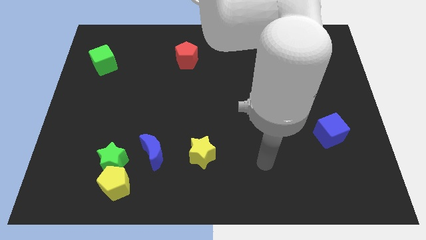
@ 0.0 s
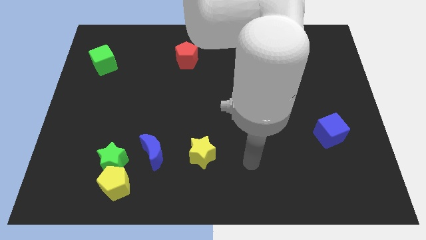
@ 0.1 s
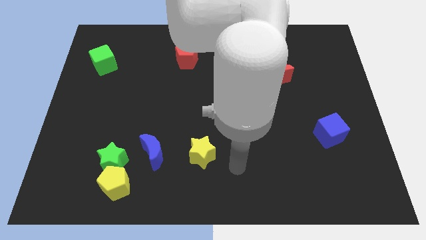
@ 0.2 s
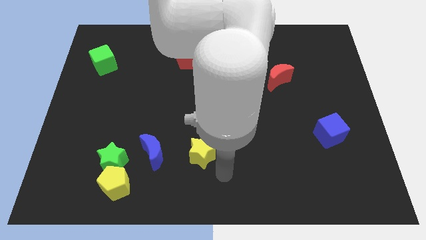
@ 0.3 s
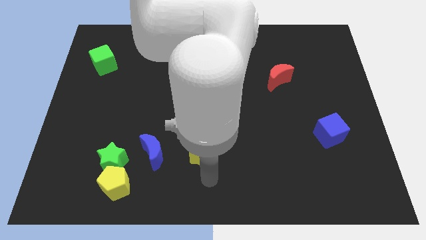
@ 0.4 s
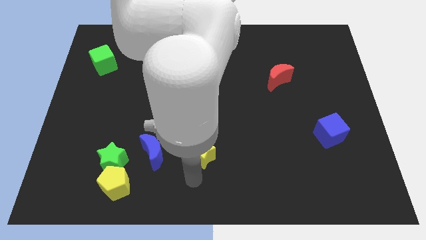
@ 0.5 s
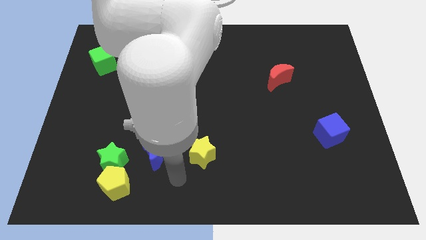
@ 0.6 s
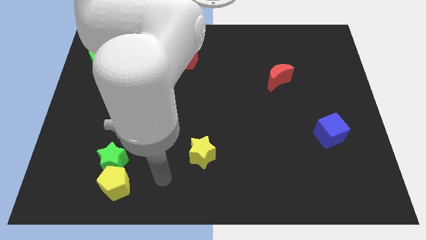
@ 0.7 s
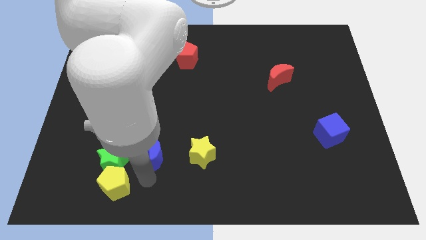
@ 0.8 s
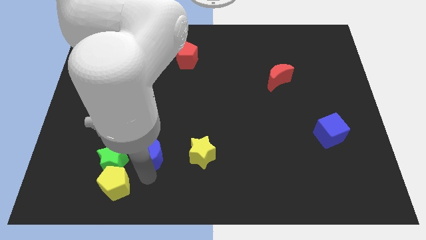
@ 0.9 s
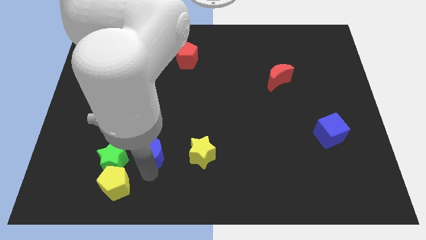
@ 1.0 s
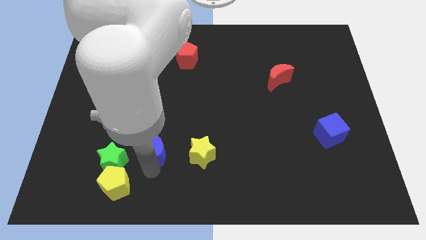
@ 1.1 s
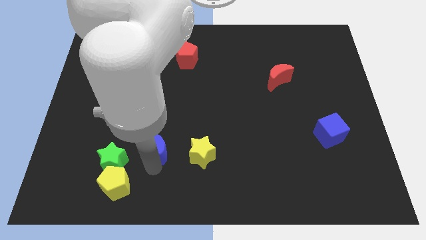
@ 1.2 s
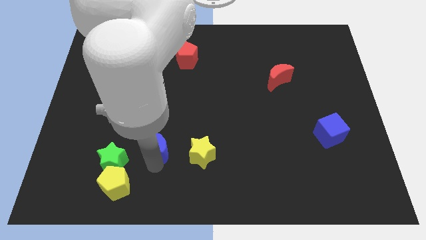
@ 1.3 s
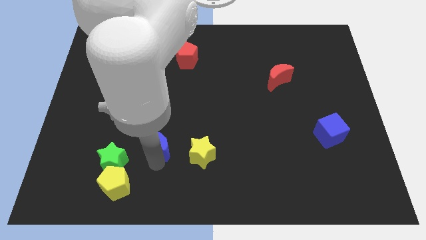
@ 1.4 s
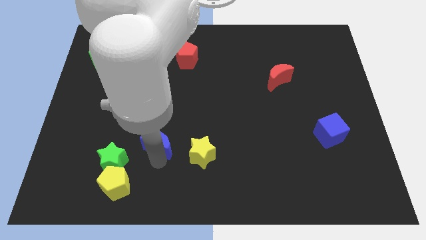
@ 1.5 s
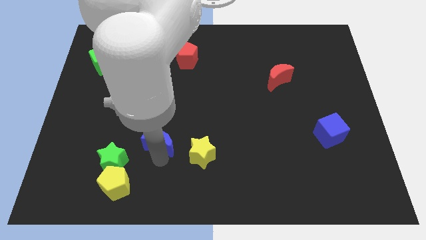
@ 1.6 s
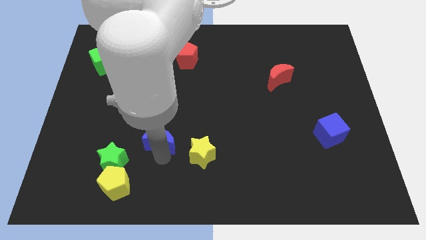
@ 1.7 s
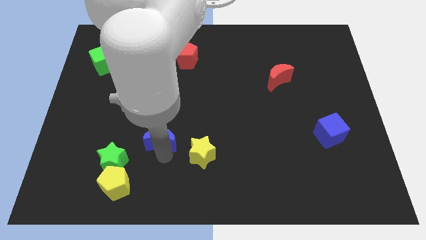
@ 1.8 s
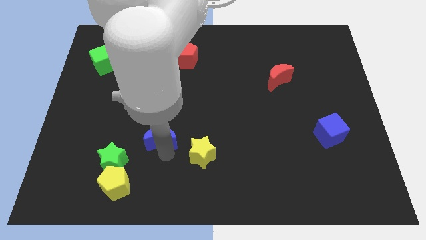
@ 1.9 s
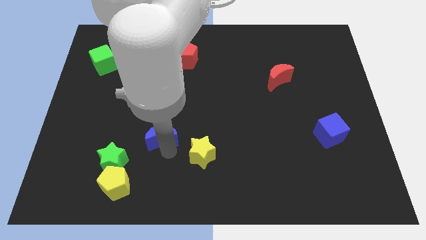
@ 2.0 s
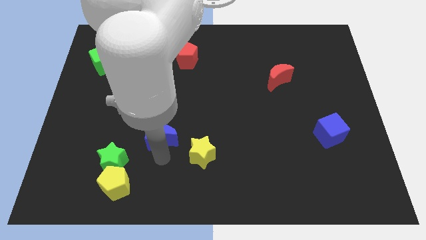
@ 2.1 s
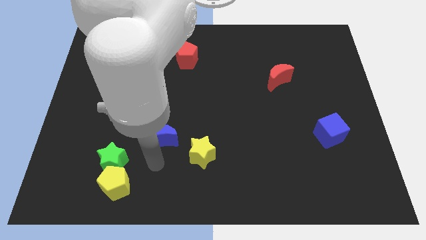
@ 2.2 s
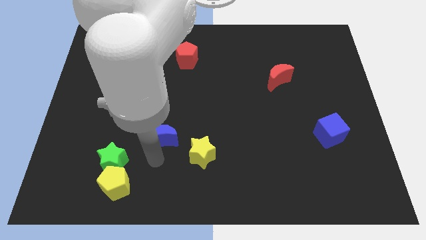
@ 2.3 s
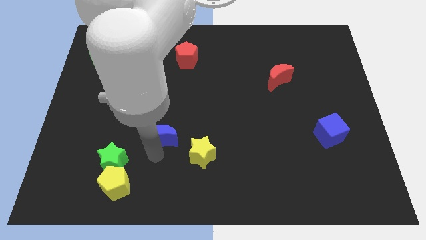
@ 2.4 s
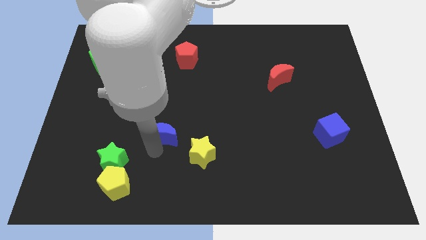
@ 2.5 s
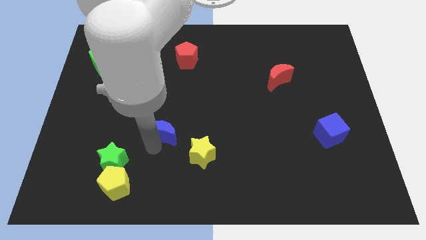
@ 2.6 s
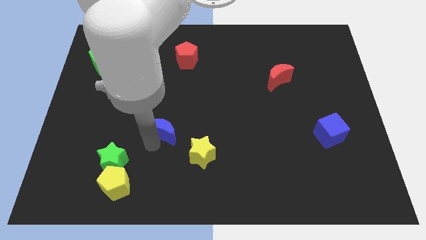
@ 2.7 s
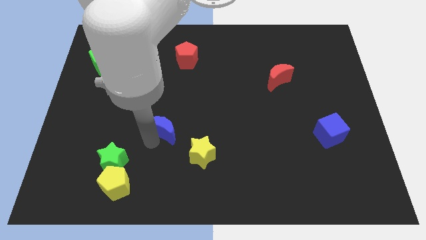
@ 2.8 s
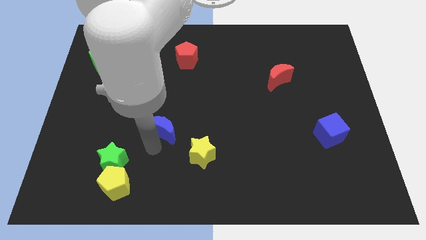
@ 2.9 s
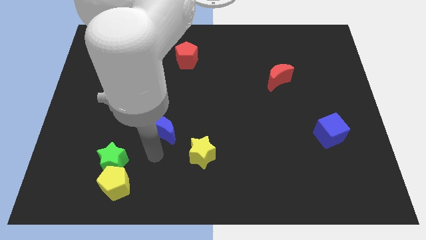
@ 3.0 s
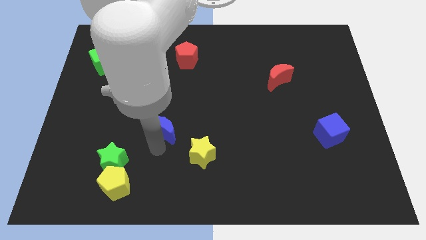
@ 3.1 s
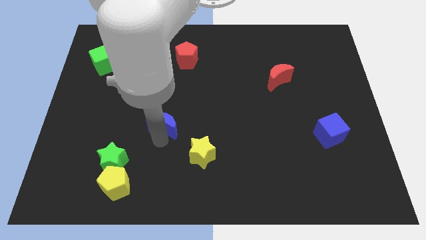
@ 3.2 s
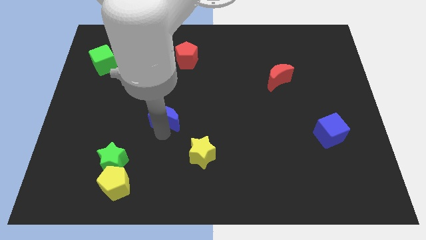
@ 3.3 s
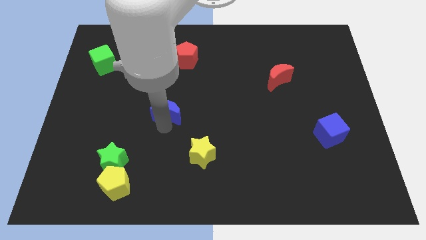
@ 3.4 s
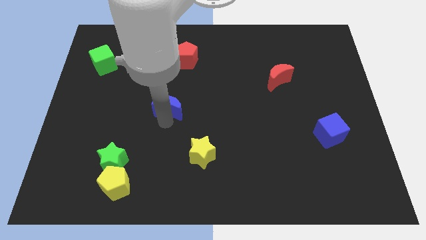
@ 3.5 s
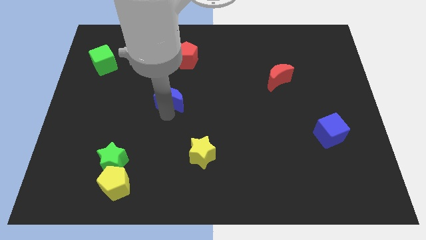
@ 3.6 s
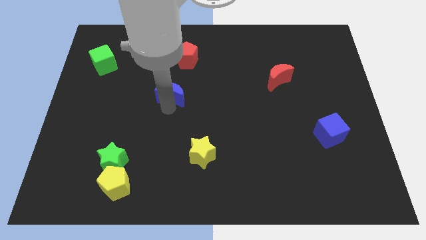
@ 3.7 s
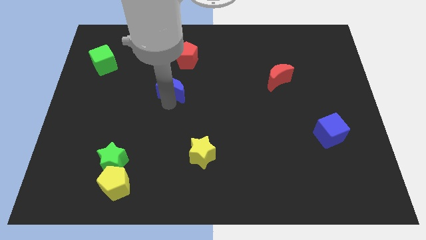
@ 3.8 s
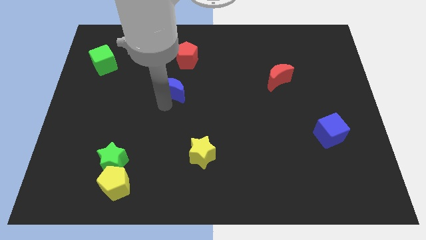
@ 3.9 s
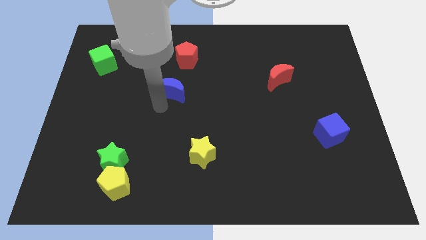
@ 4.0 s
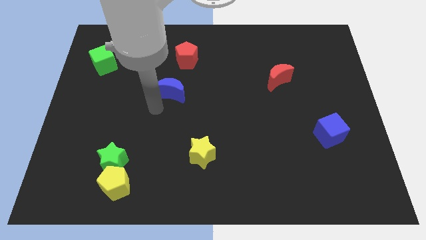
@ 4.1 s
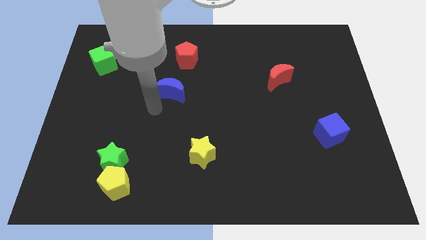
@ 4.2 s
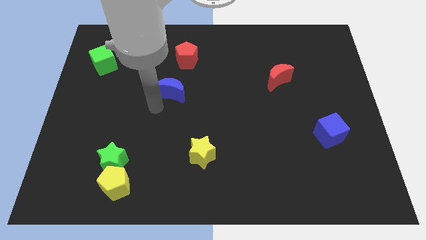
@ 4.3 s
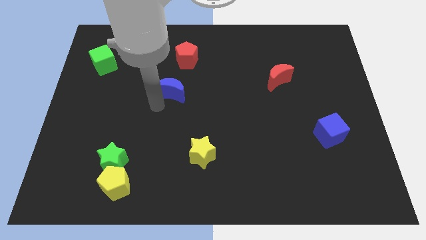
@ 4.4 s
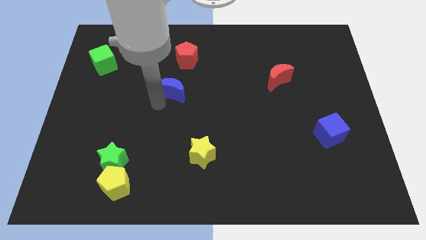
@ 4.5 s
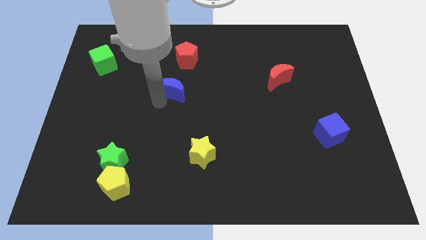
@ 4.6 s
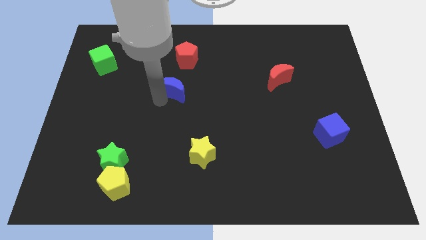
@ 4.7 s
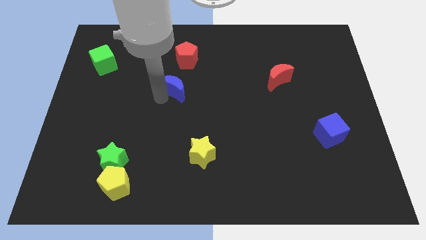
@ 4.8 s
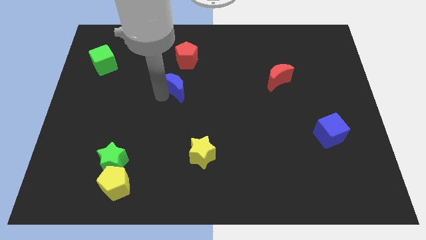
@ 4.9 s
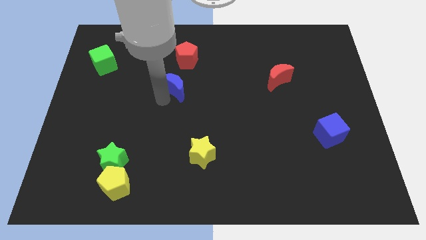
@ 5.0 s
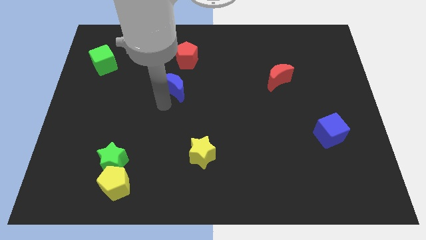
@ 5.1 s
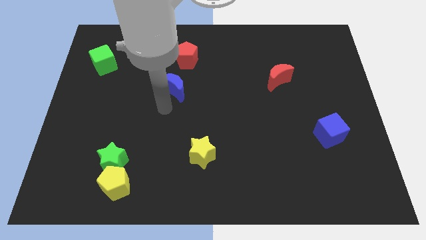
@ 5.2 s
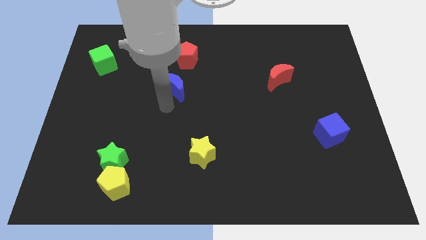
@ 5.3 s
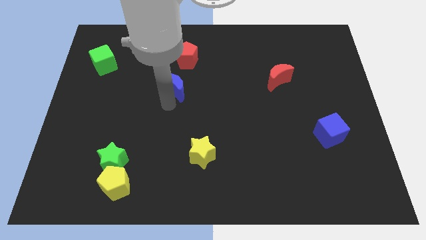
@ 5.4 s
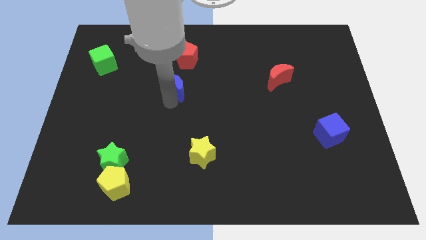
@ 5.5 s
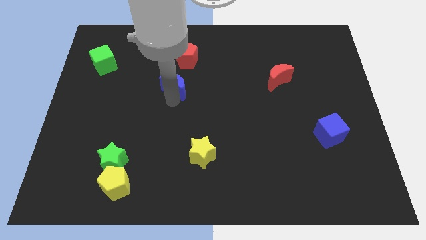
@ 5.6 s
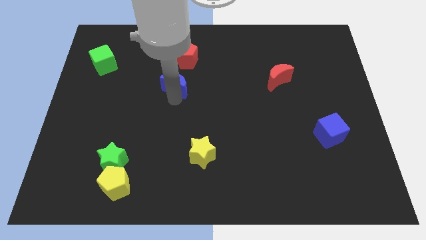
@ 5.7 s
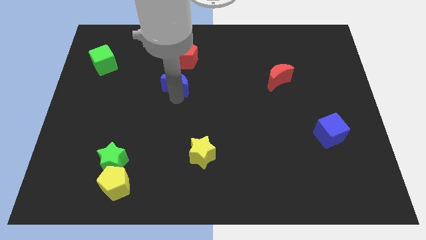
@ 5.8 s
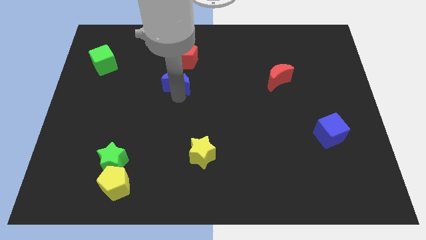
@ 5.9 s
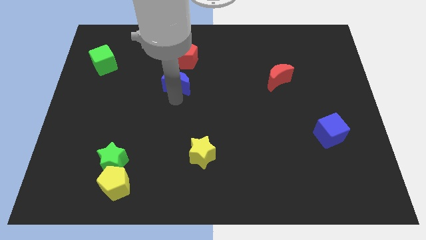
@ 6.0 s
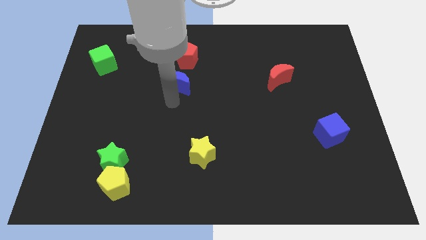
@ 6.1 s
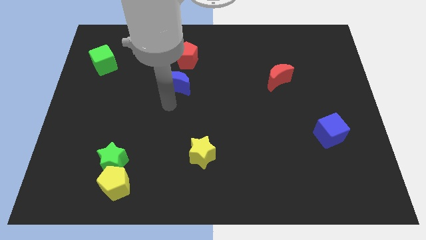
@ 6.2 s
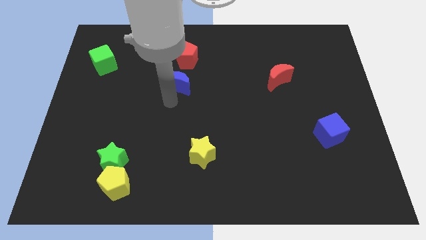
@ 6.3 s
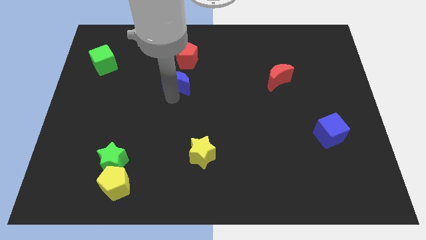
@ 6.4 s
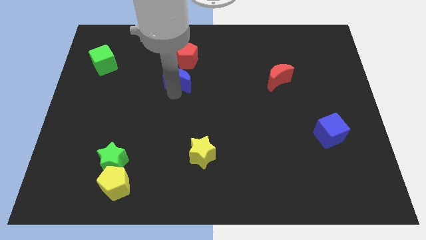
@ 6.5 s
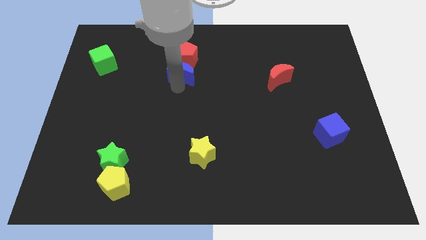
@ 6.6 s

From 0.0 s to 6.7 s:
push the blue moon to the red pentagon
